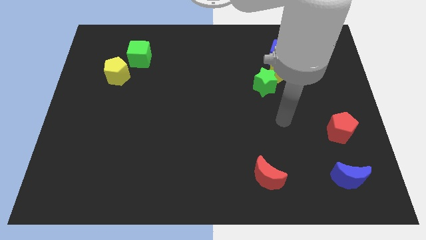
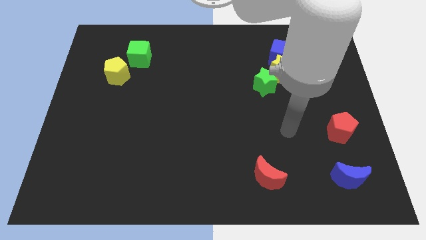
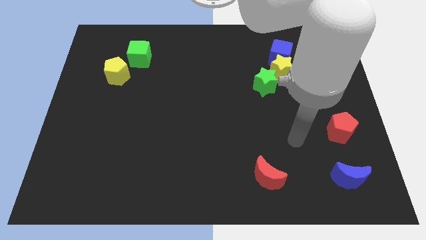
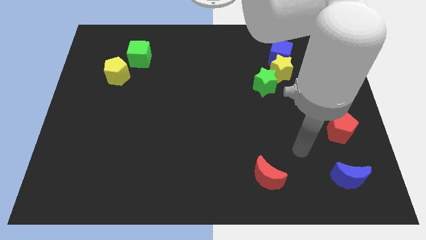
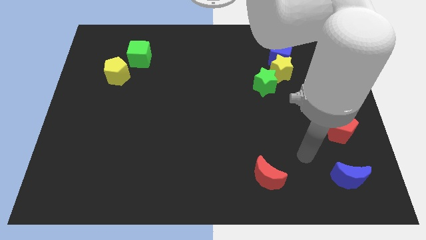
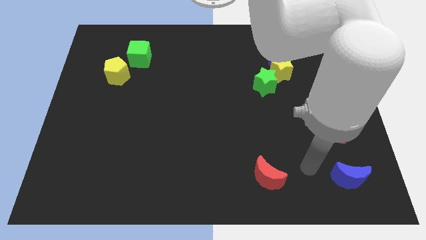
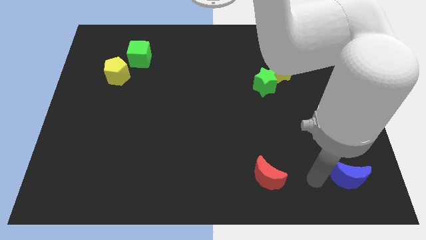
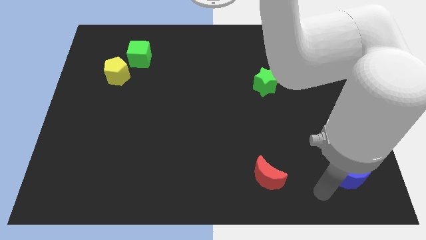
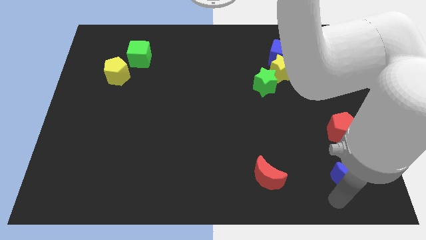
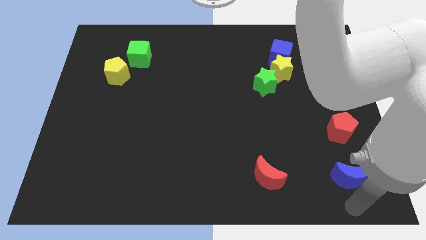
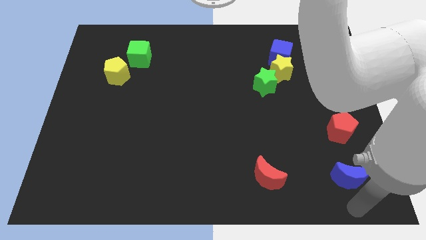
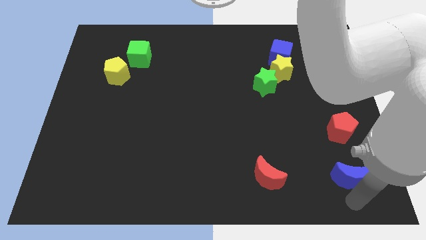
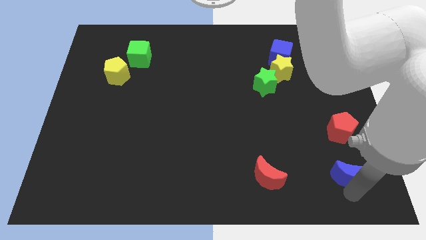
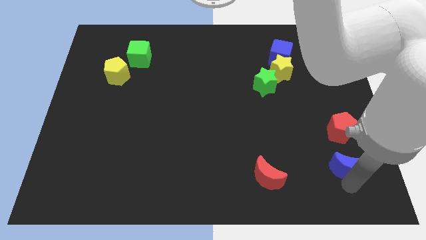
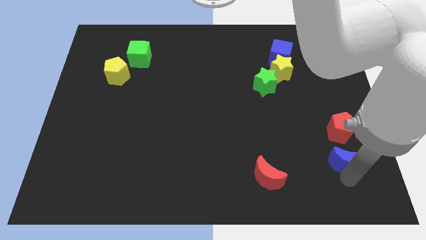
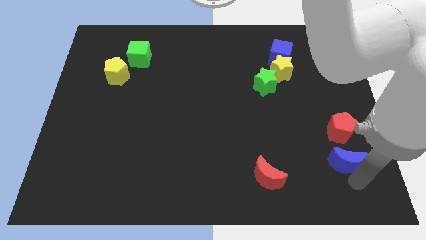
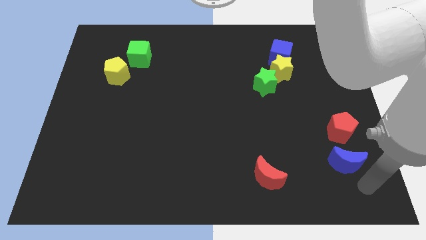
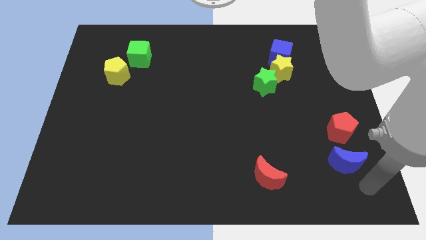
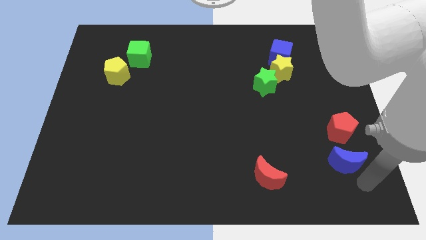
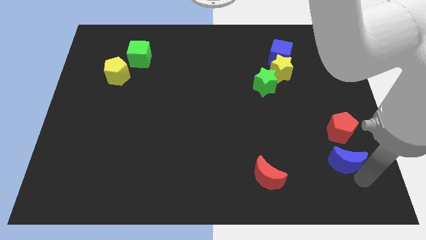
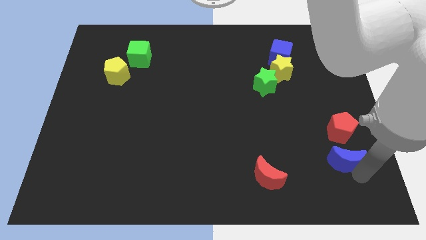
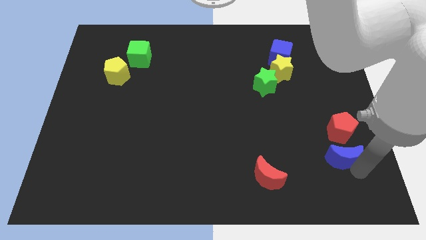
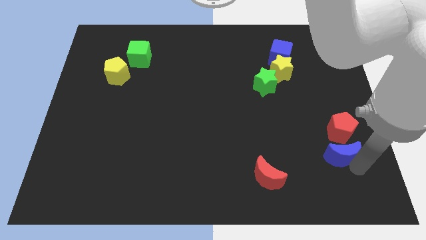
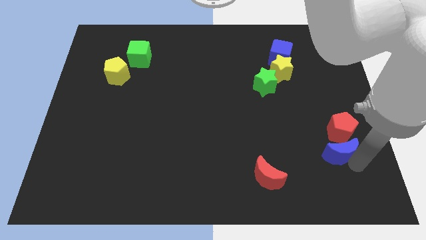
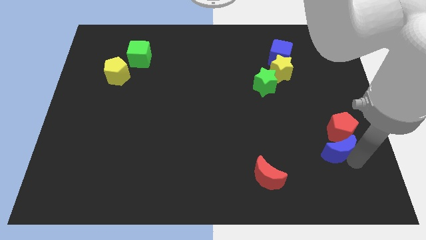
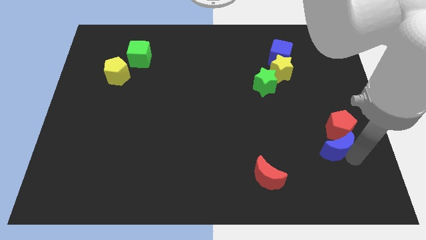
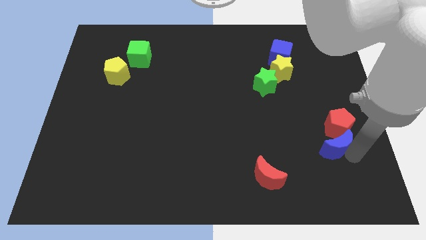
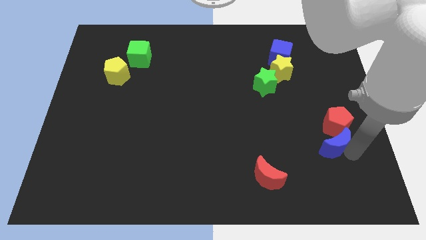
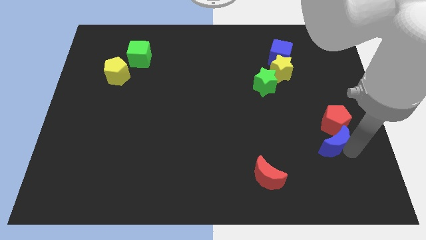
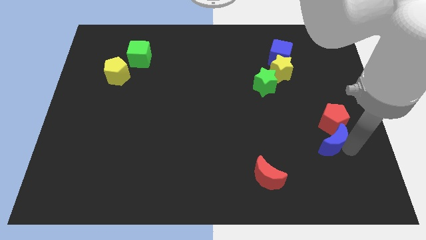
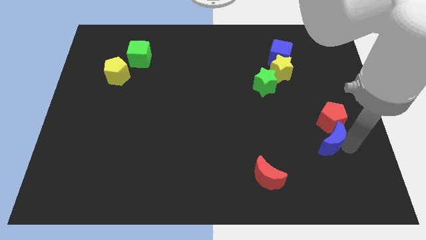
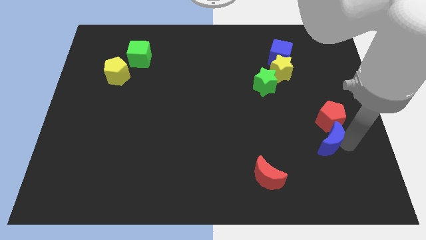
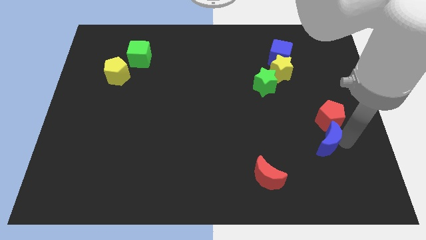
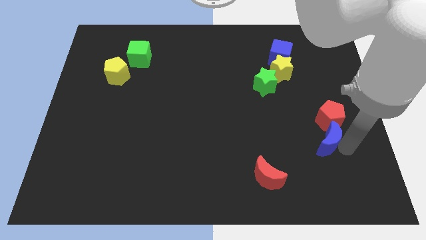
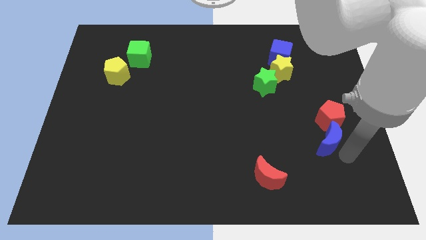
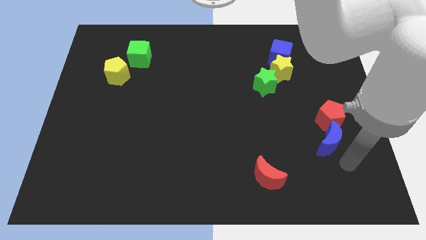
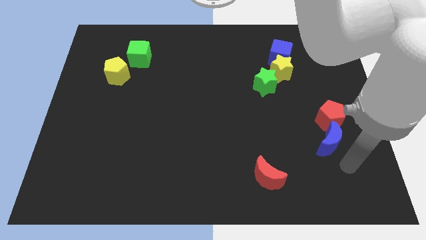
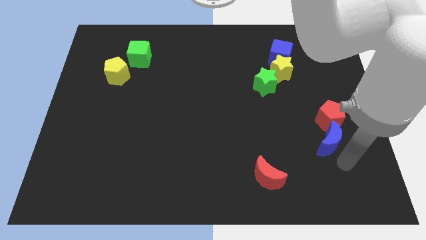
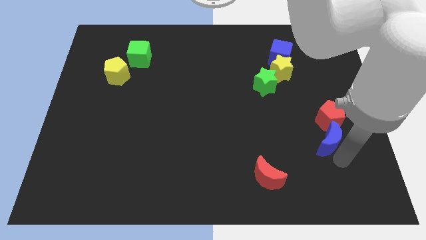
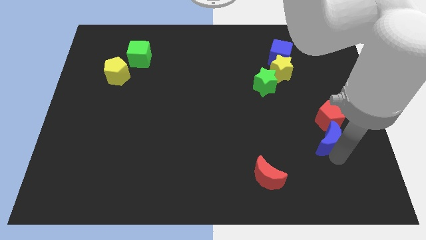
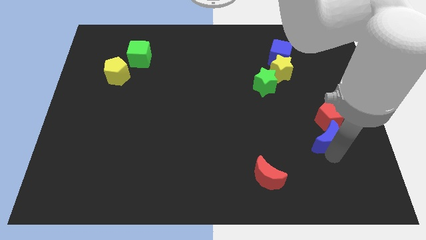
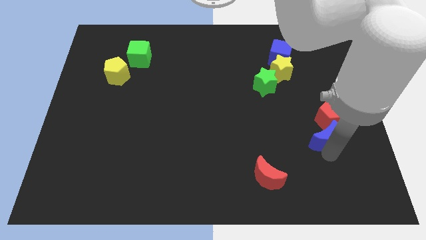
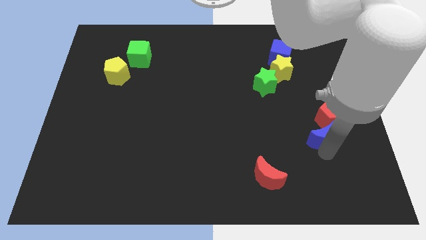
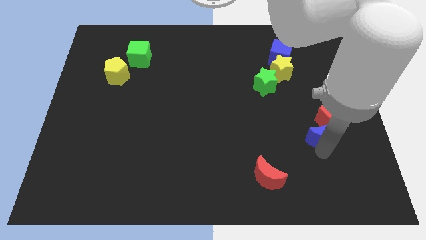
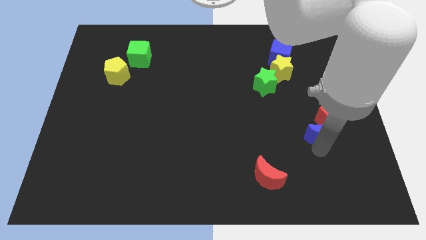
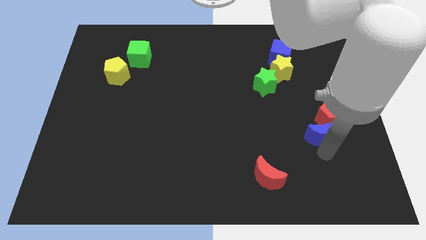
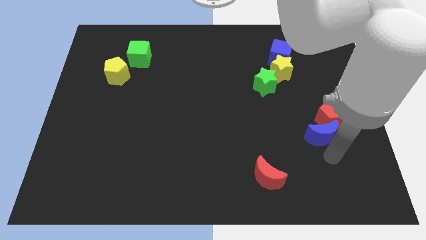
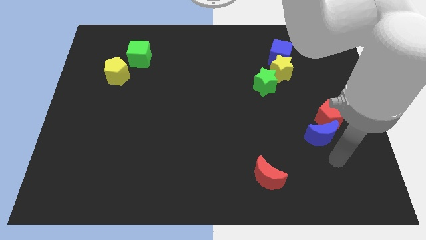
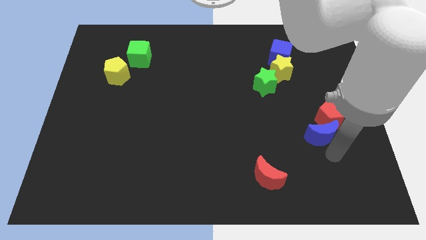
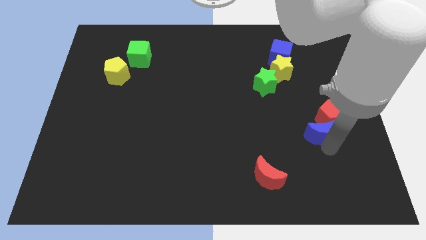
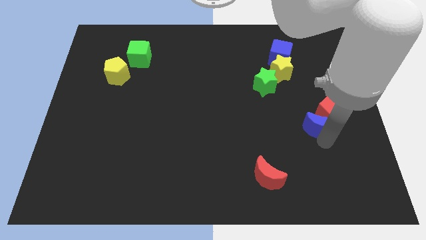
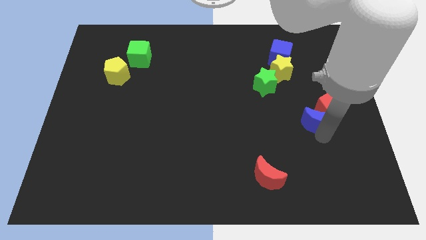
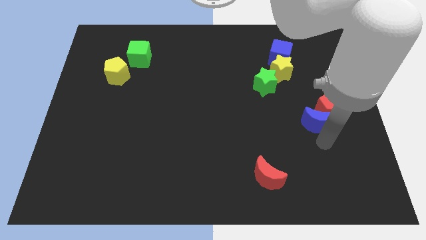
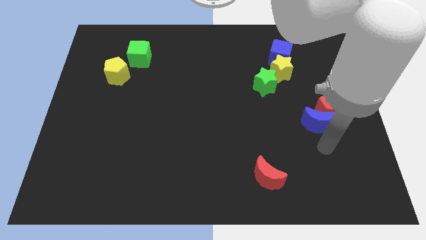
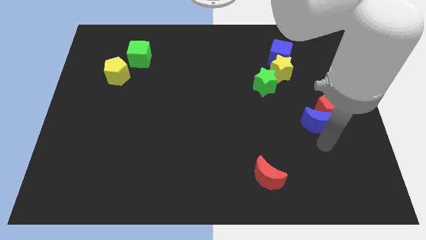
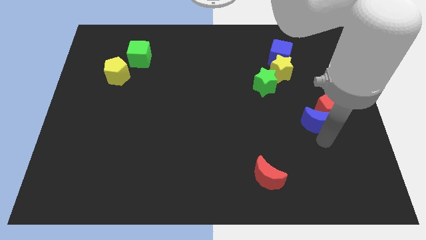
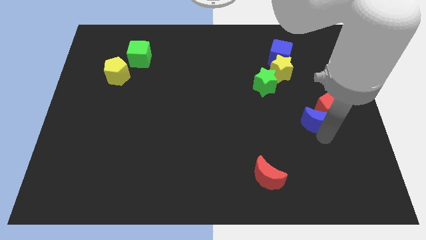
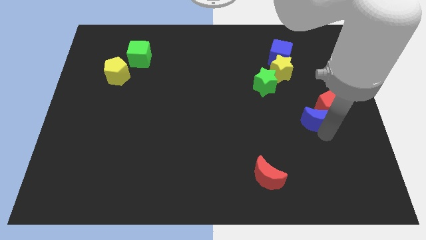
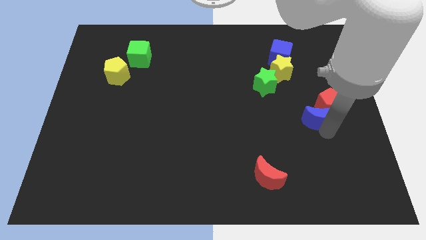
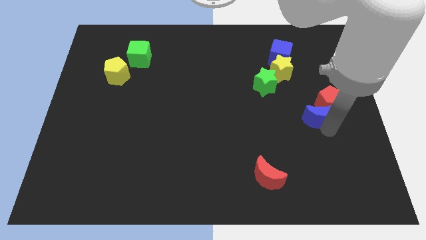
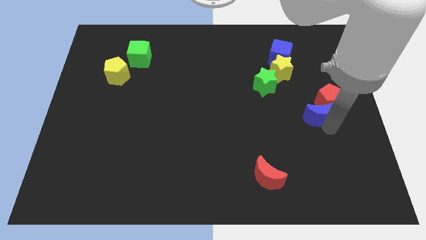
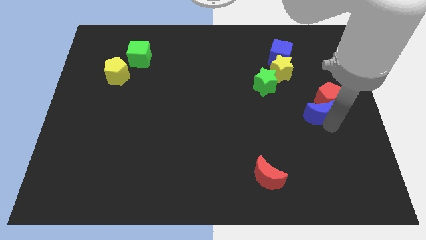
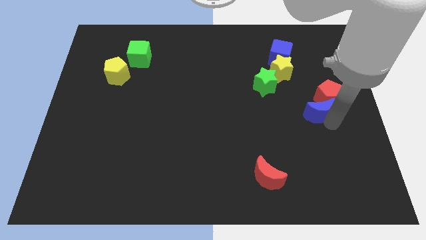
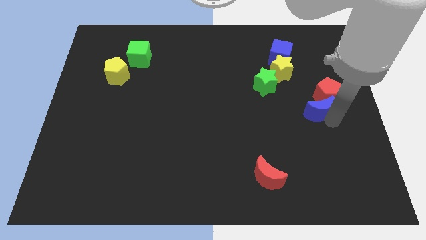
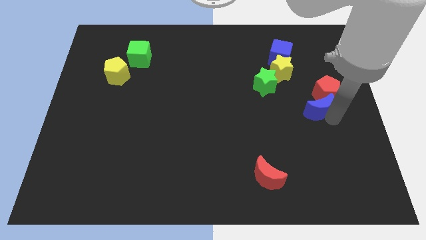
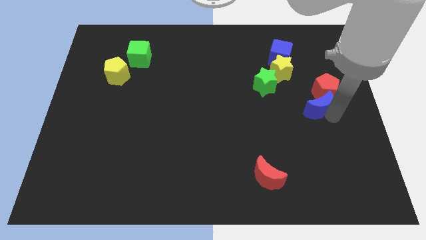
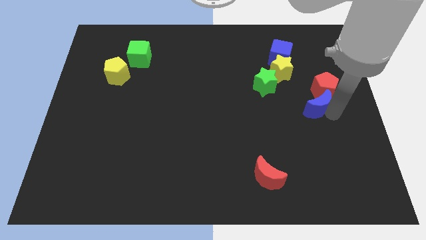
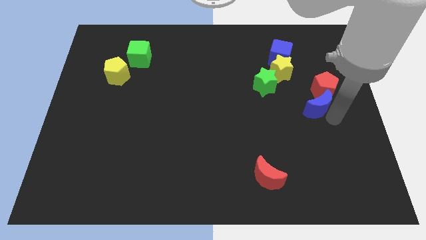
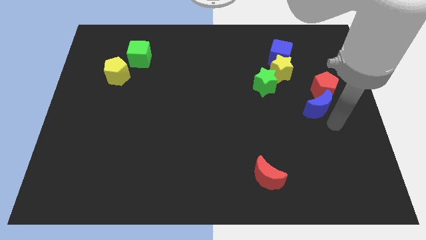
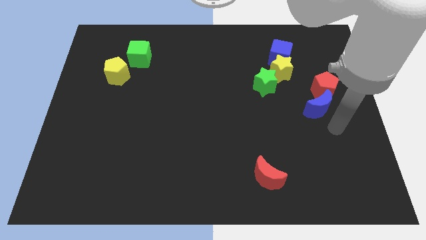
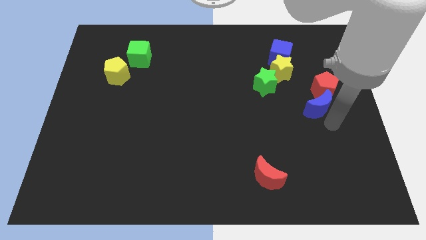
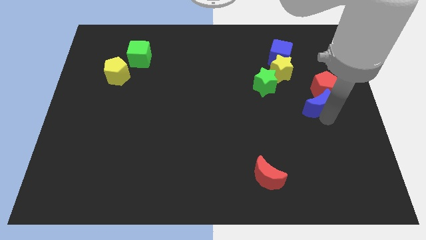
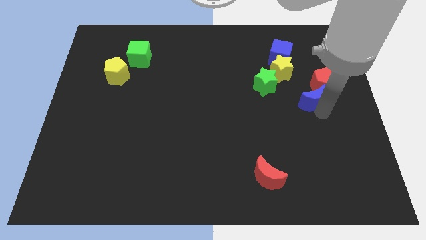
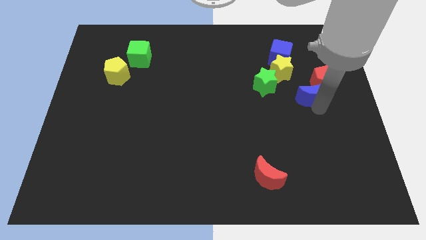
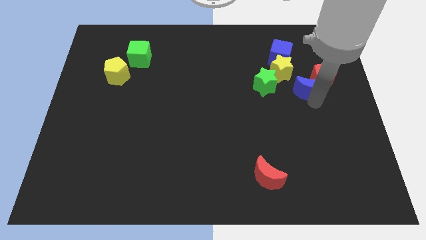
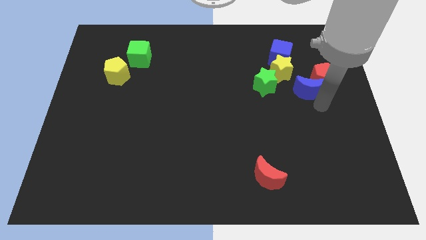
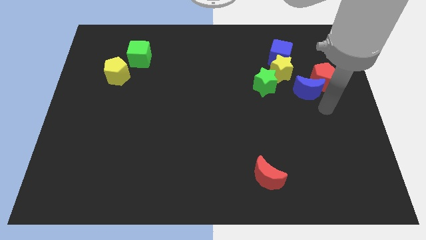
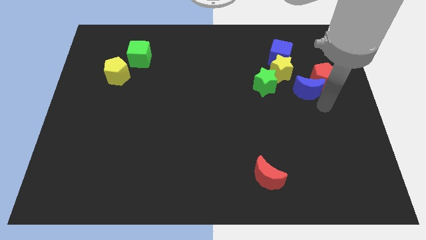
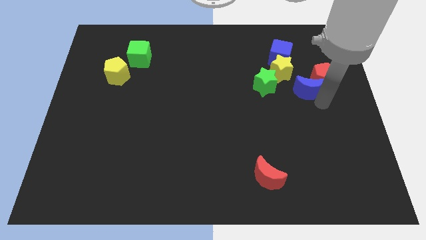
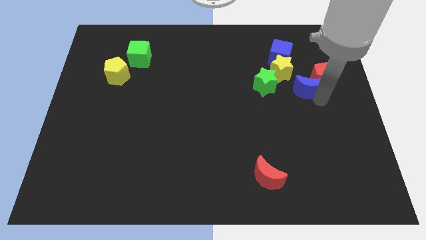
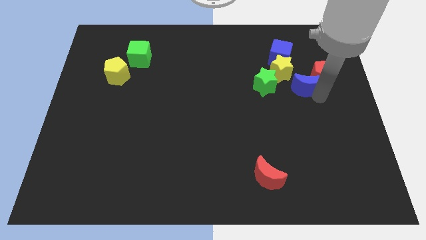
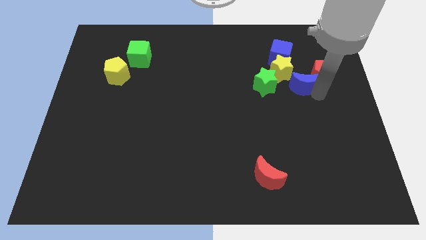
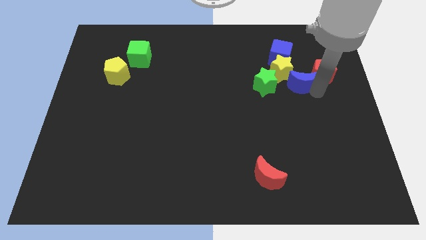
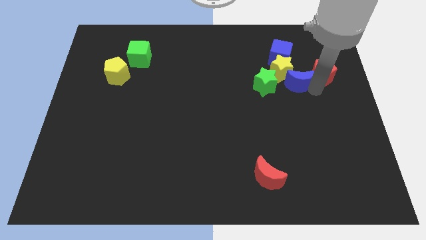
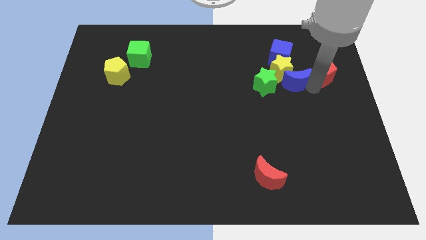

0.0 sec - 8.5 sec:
put the blue moon diagonally up and to the right of the green star
